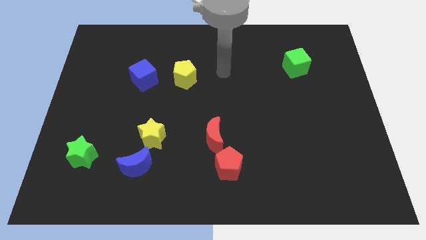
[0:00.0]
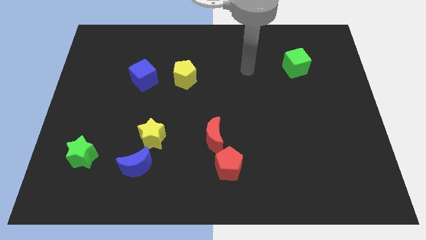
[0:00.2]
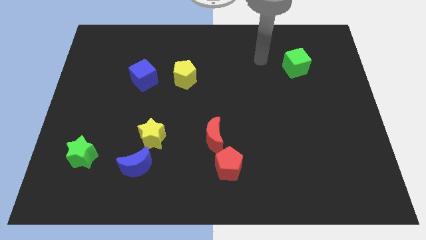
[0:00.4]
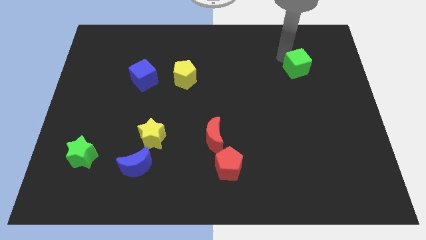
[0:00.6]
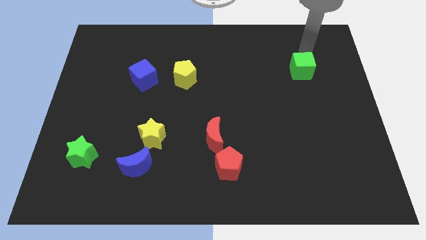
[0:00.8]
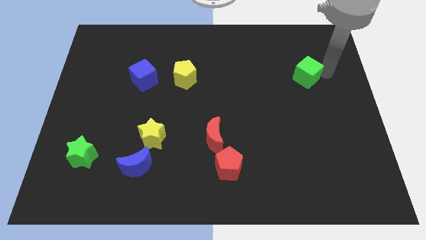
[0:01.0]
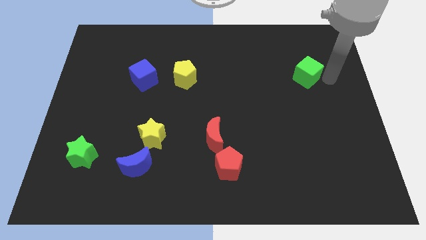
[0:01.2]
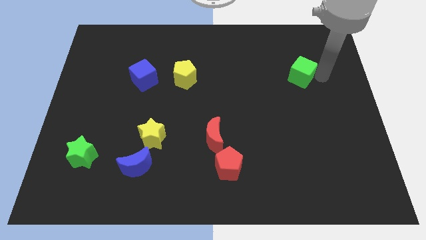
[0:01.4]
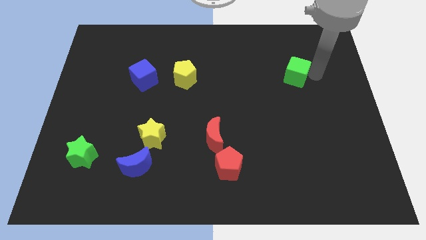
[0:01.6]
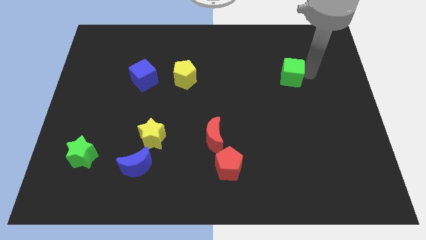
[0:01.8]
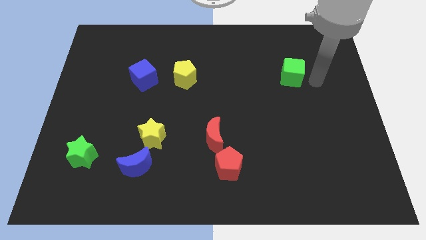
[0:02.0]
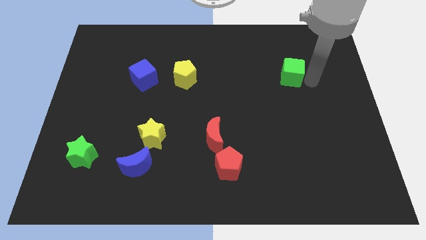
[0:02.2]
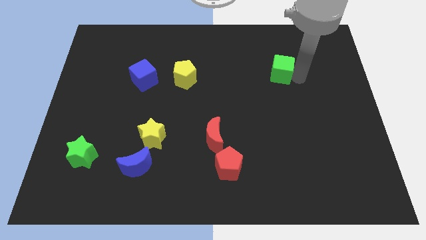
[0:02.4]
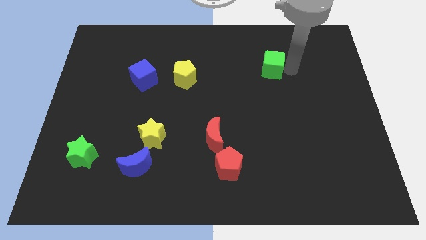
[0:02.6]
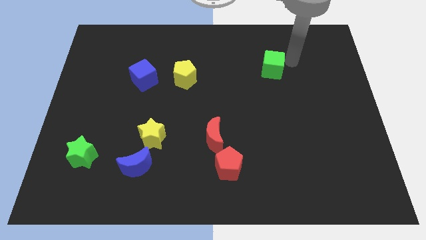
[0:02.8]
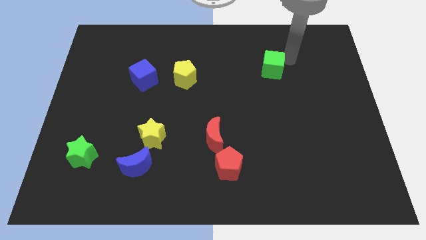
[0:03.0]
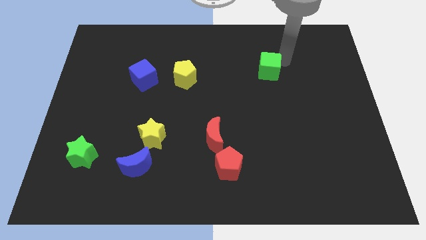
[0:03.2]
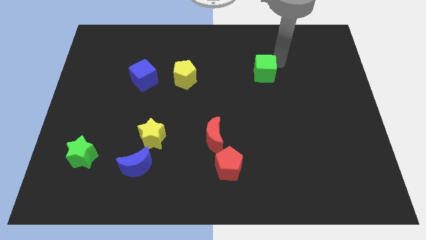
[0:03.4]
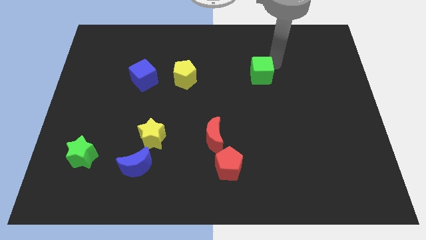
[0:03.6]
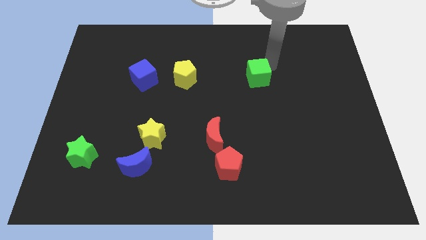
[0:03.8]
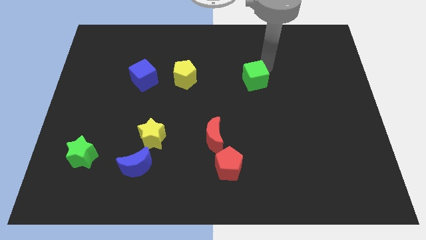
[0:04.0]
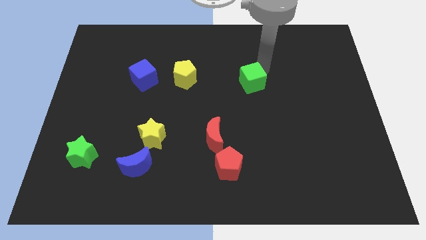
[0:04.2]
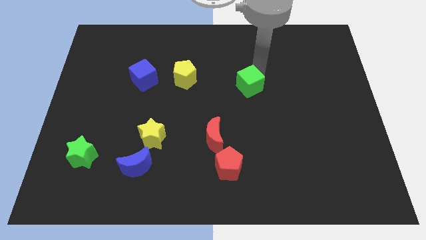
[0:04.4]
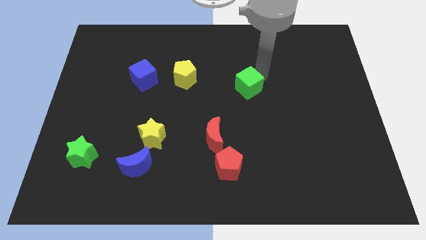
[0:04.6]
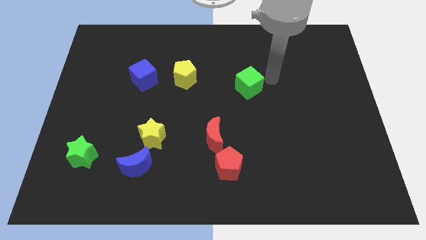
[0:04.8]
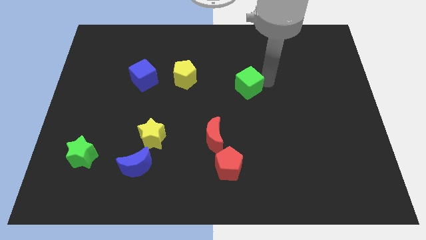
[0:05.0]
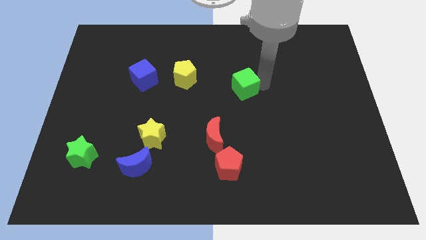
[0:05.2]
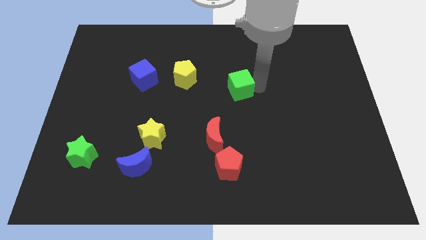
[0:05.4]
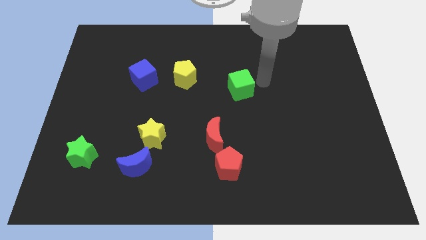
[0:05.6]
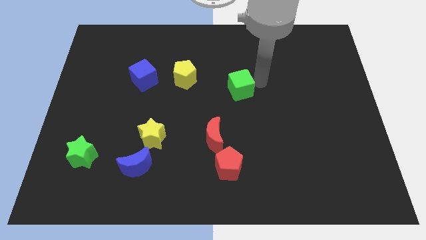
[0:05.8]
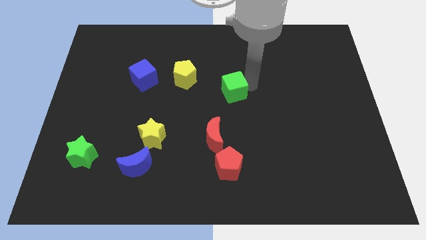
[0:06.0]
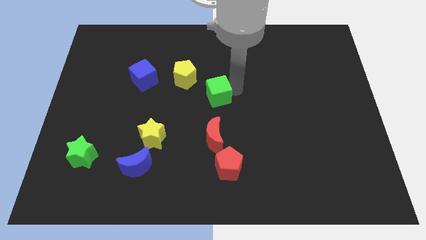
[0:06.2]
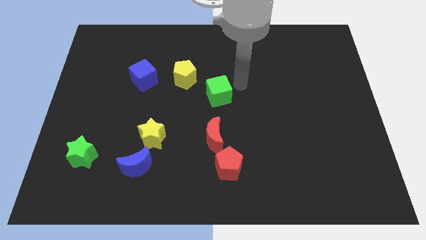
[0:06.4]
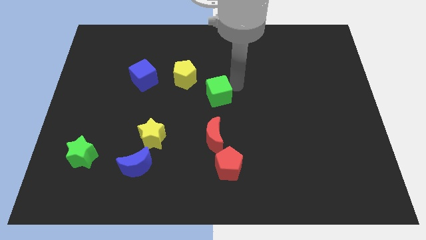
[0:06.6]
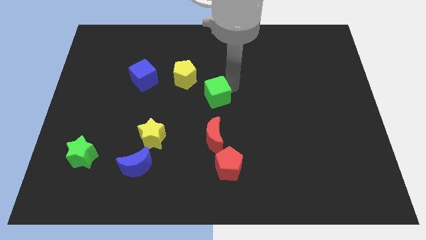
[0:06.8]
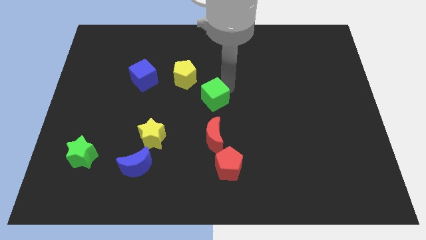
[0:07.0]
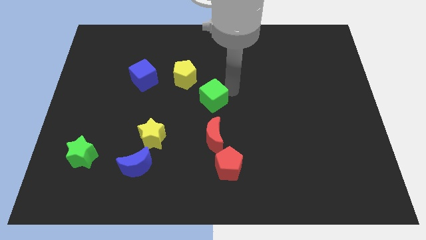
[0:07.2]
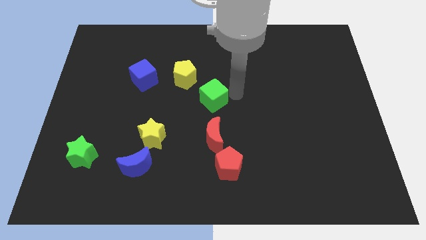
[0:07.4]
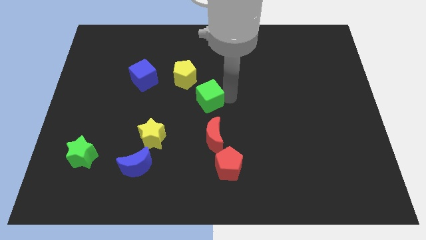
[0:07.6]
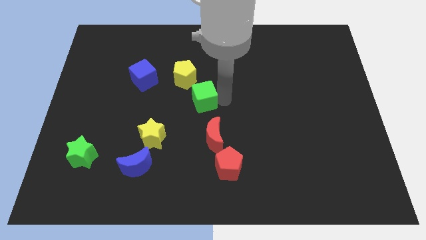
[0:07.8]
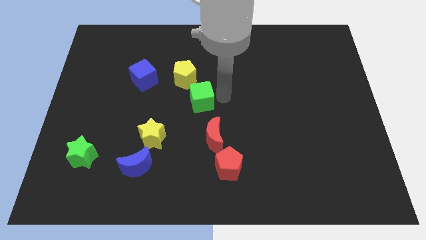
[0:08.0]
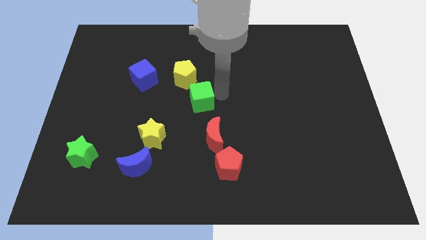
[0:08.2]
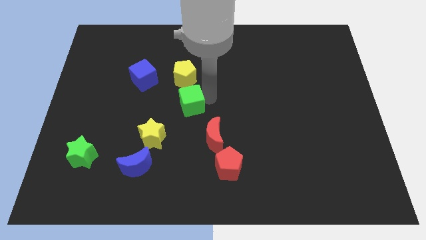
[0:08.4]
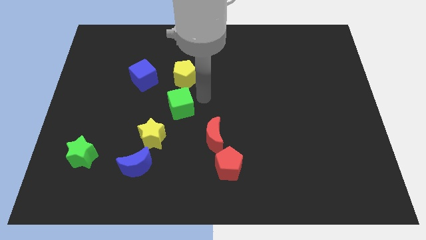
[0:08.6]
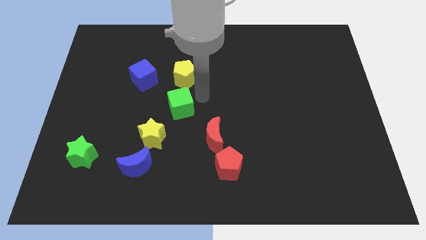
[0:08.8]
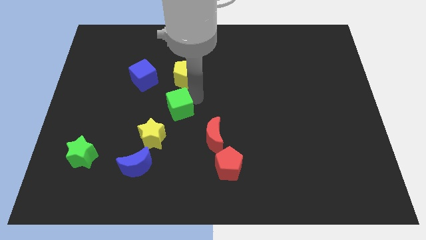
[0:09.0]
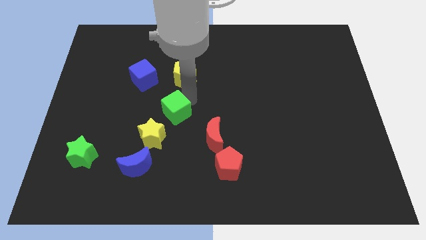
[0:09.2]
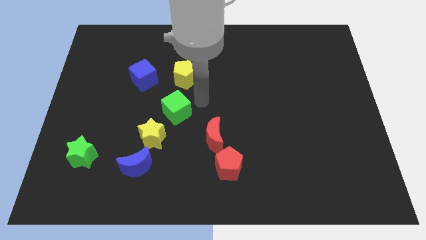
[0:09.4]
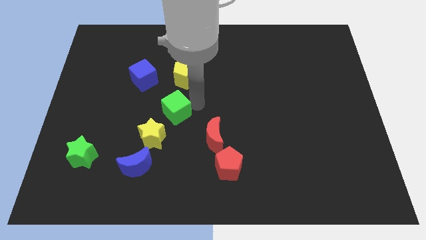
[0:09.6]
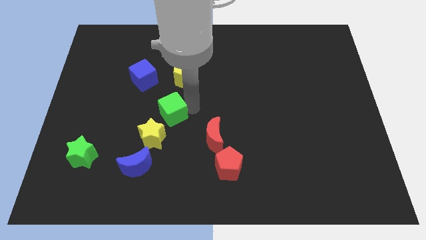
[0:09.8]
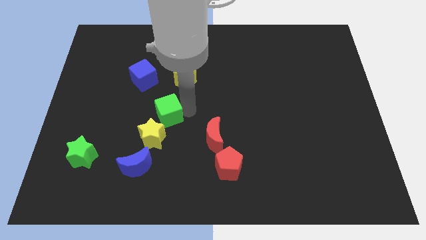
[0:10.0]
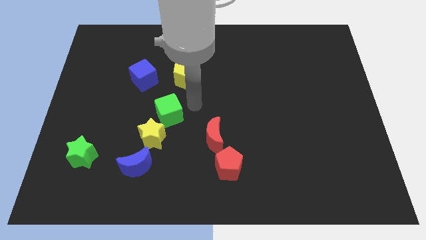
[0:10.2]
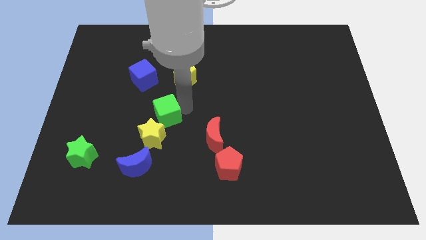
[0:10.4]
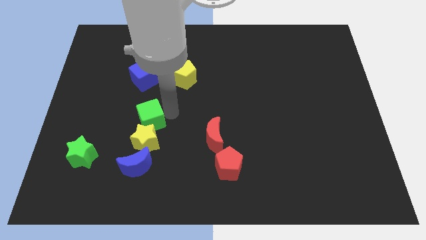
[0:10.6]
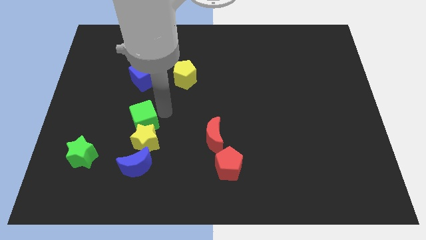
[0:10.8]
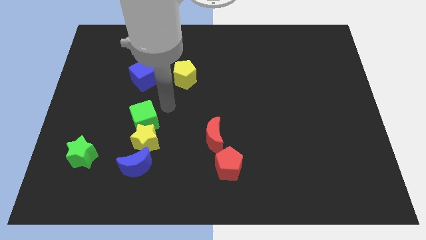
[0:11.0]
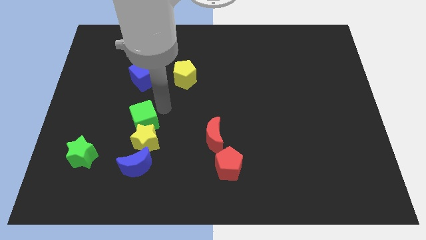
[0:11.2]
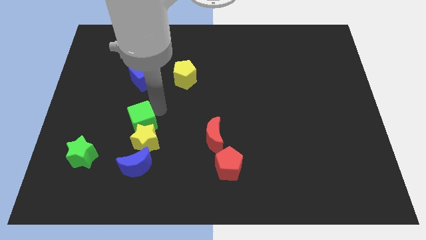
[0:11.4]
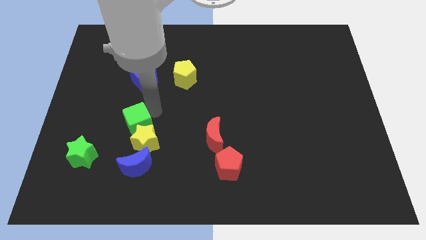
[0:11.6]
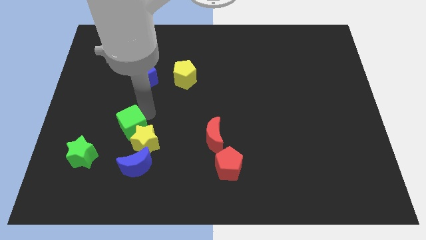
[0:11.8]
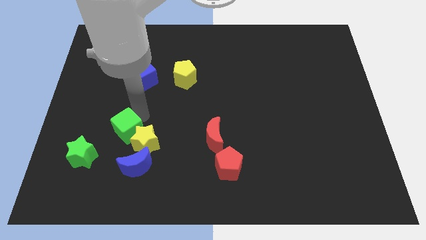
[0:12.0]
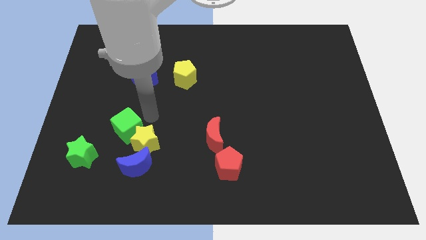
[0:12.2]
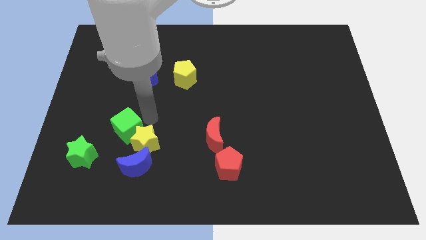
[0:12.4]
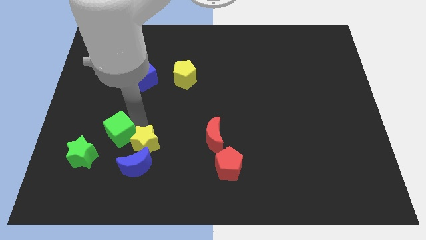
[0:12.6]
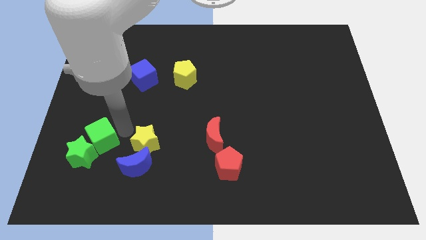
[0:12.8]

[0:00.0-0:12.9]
move the green cube towards the green star
